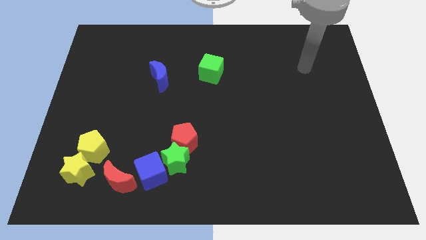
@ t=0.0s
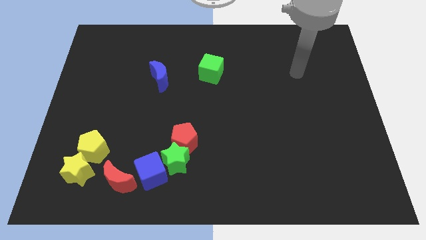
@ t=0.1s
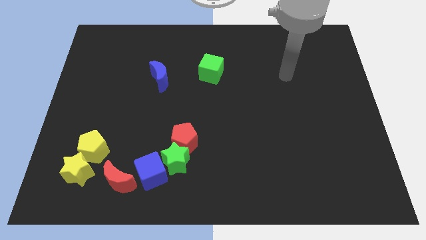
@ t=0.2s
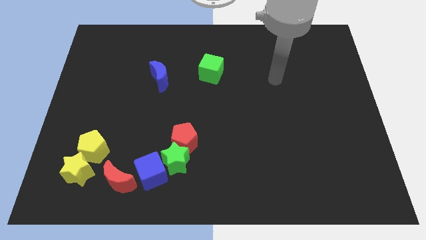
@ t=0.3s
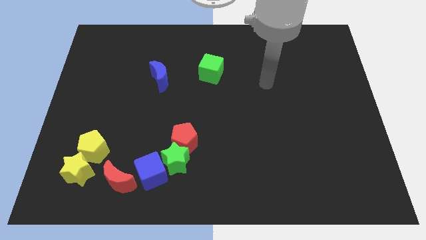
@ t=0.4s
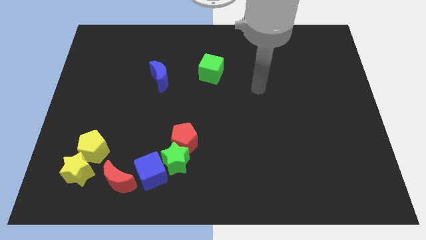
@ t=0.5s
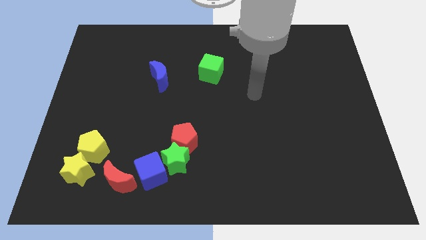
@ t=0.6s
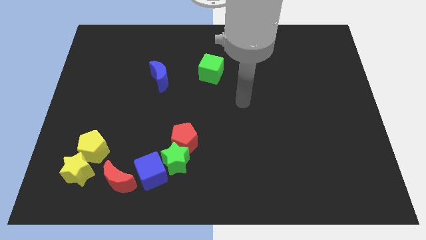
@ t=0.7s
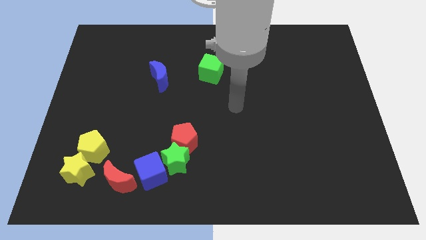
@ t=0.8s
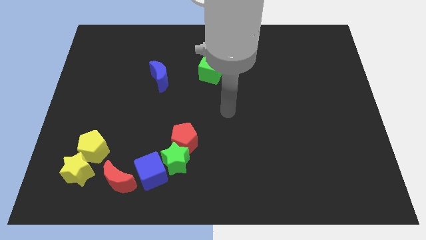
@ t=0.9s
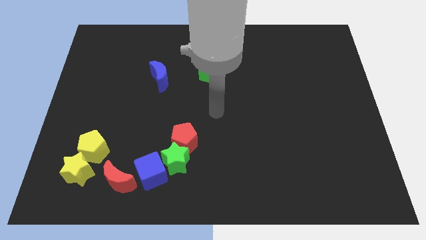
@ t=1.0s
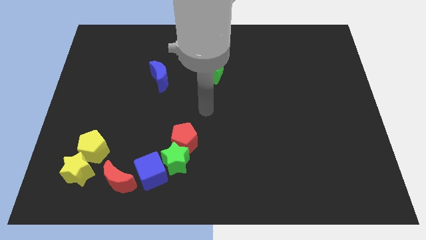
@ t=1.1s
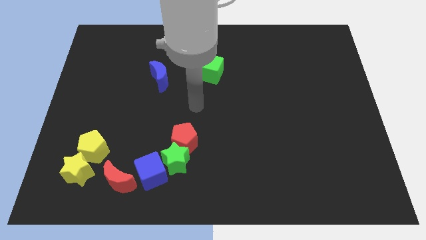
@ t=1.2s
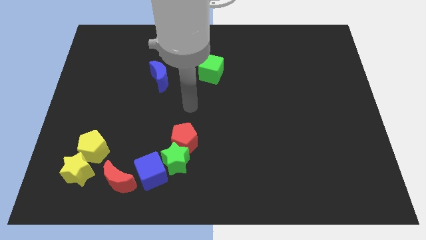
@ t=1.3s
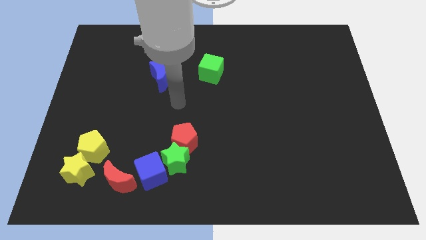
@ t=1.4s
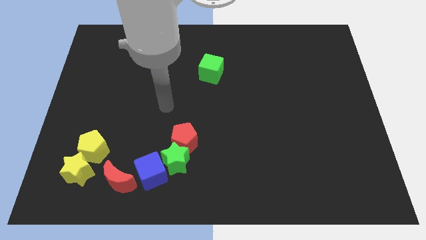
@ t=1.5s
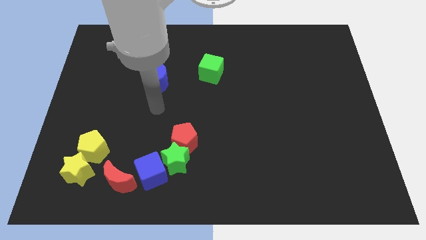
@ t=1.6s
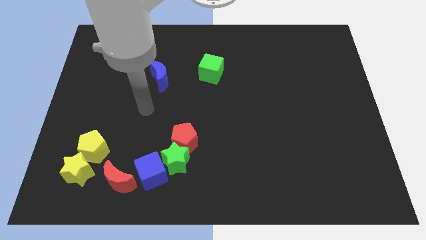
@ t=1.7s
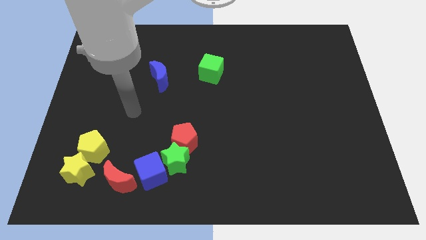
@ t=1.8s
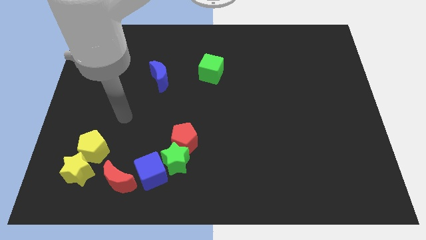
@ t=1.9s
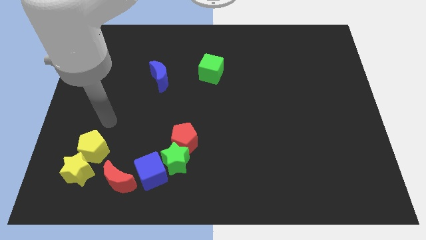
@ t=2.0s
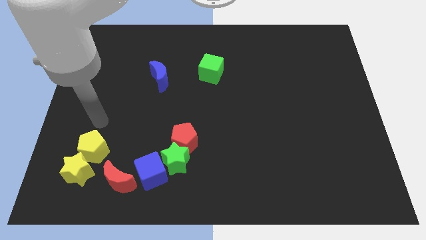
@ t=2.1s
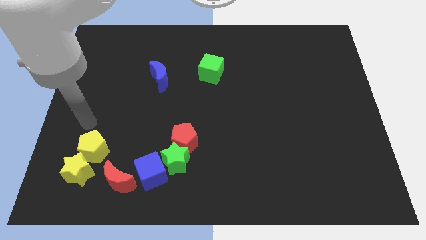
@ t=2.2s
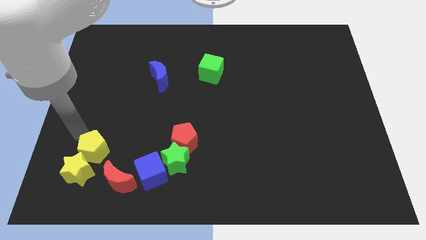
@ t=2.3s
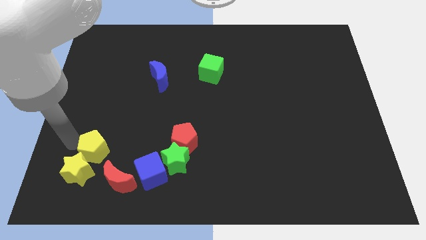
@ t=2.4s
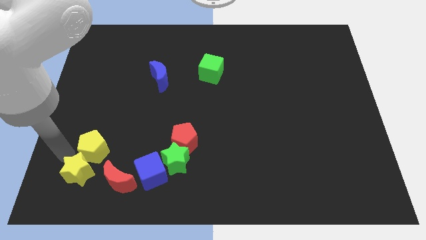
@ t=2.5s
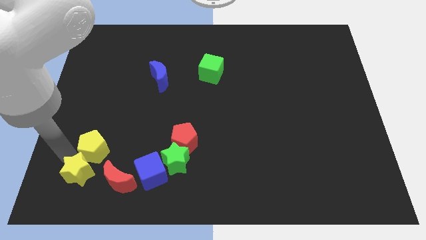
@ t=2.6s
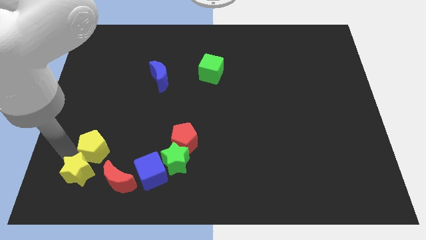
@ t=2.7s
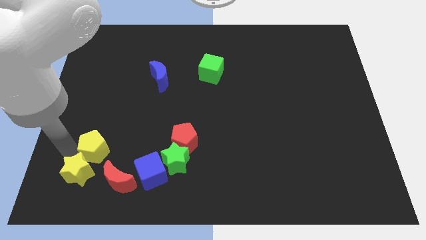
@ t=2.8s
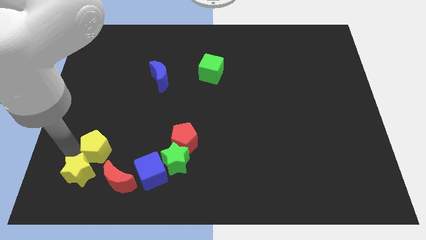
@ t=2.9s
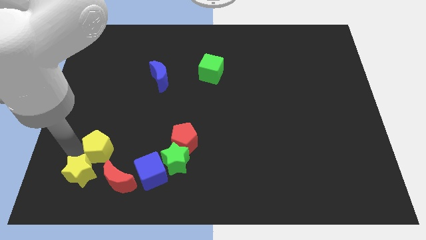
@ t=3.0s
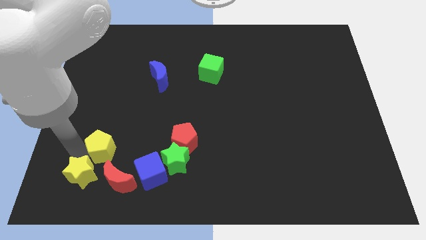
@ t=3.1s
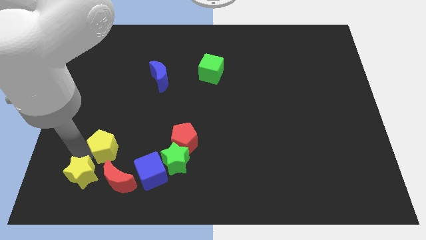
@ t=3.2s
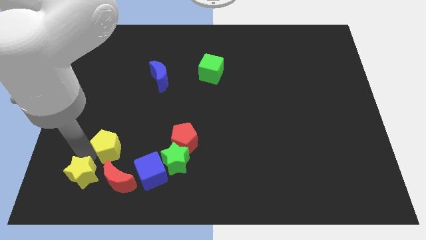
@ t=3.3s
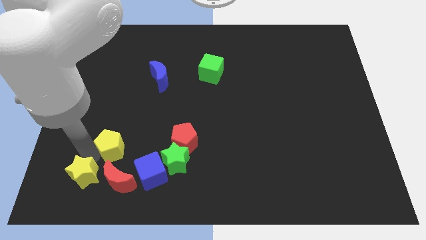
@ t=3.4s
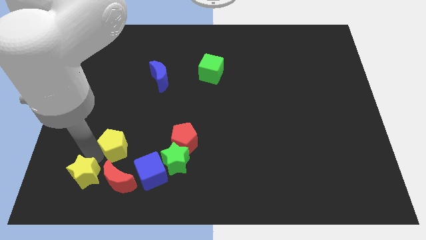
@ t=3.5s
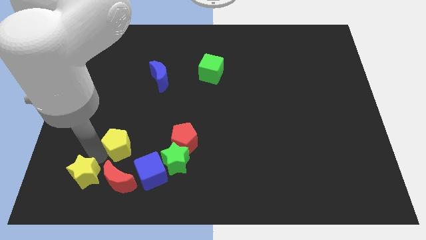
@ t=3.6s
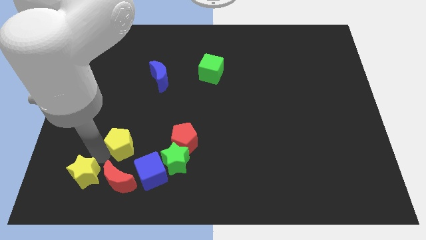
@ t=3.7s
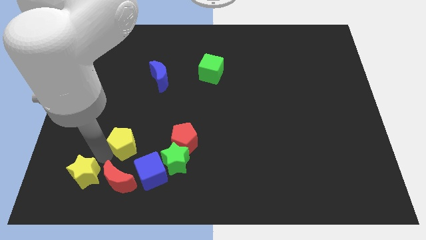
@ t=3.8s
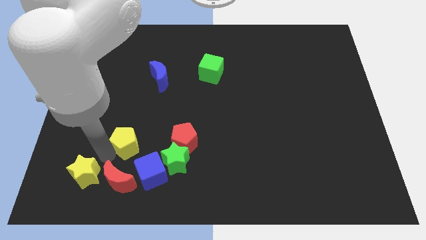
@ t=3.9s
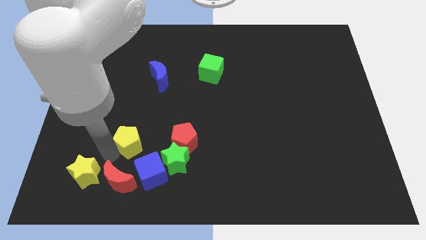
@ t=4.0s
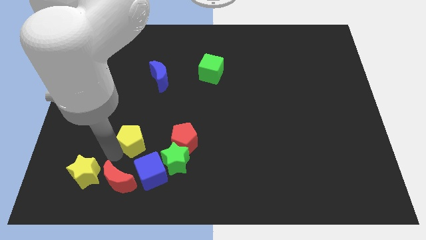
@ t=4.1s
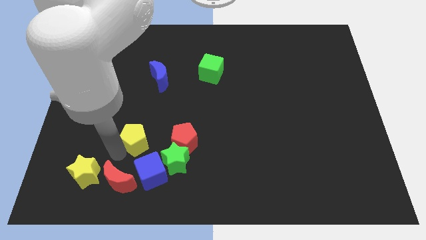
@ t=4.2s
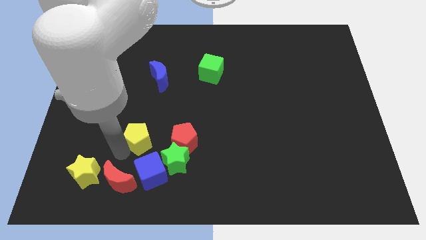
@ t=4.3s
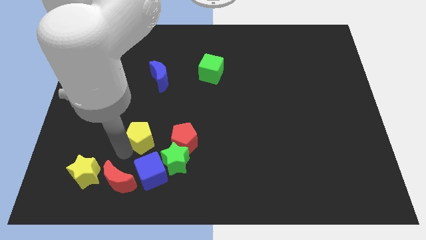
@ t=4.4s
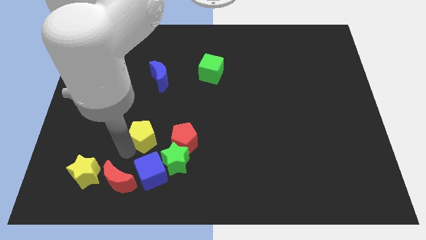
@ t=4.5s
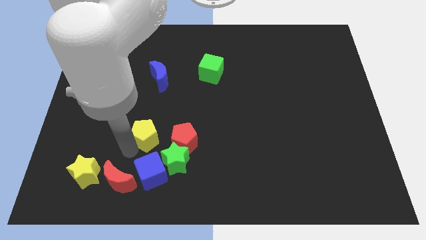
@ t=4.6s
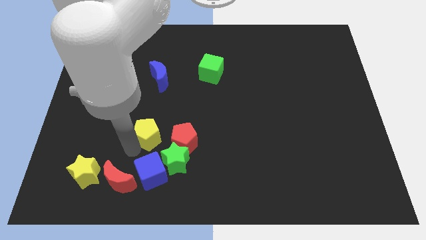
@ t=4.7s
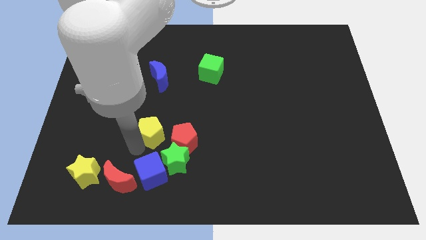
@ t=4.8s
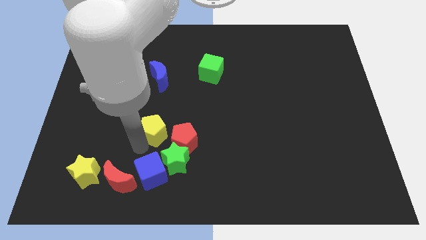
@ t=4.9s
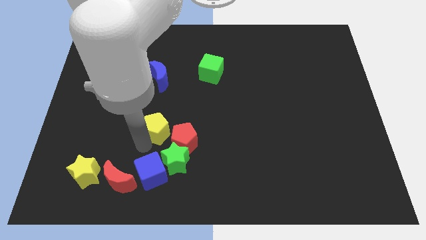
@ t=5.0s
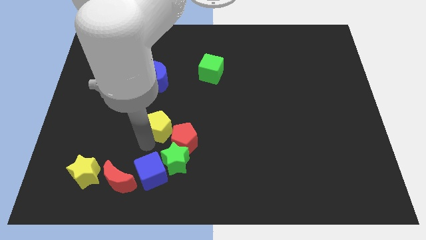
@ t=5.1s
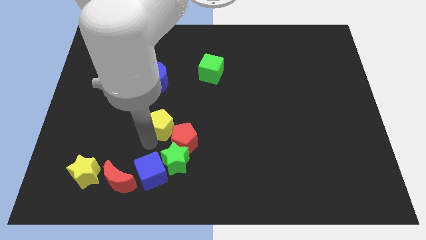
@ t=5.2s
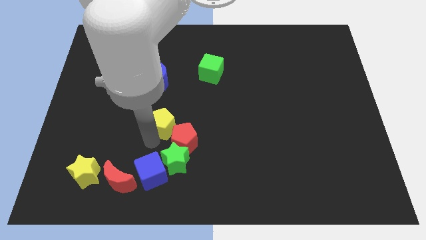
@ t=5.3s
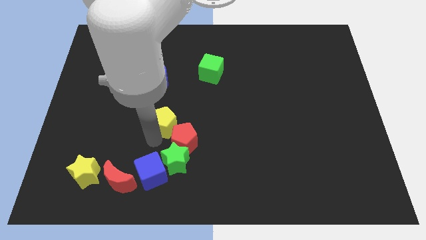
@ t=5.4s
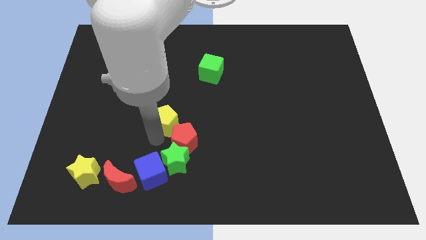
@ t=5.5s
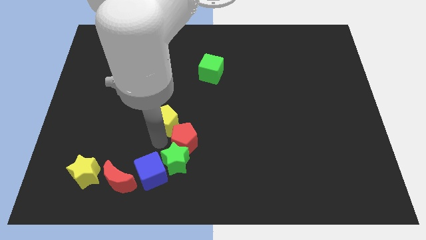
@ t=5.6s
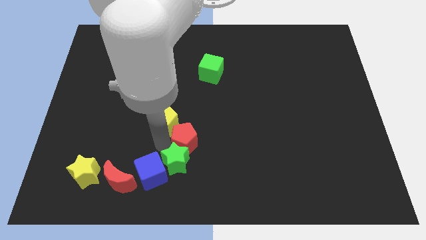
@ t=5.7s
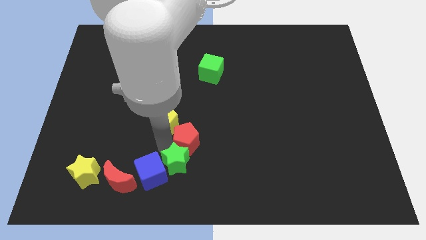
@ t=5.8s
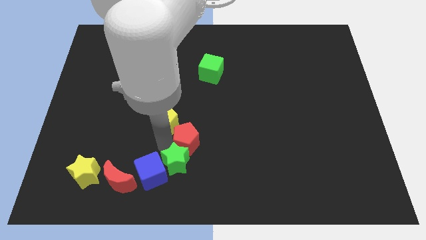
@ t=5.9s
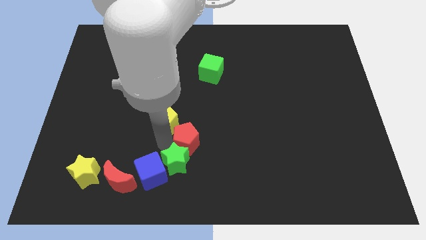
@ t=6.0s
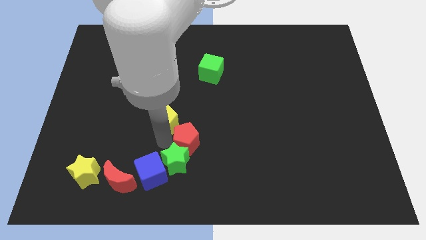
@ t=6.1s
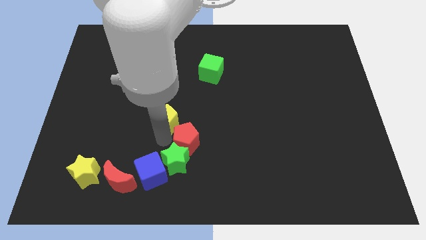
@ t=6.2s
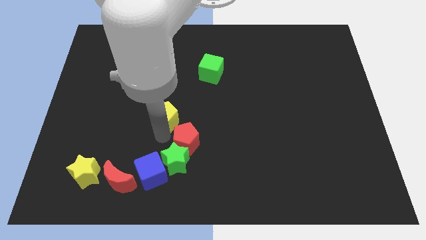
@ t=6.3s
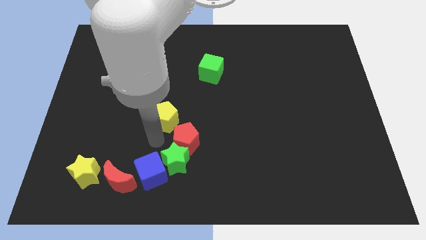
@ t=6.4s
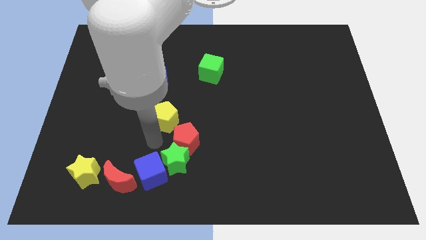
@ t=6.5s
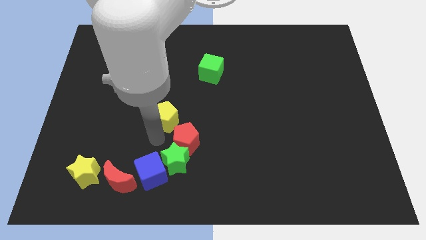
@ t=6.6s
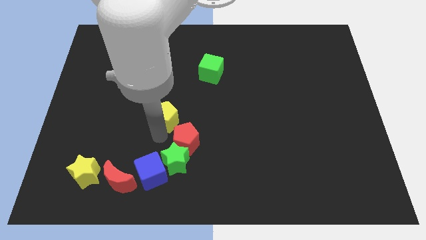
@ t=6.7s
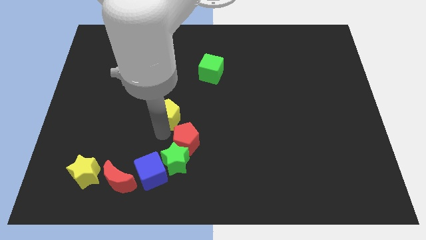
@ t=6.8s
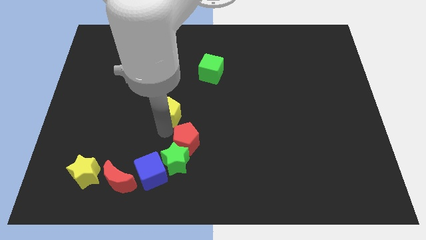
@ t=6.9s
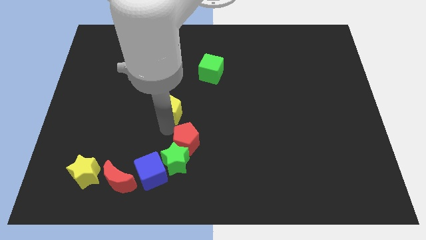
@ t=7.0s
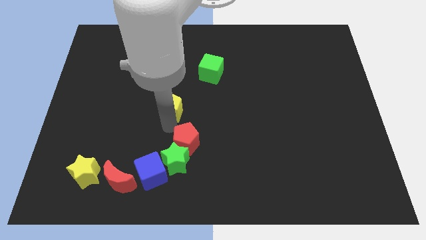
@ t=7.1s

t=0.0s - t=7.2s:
move the yellow pentagon diagonally down and to the right of the blue moon

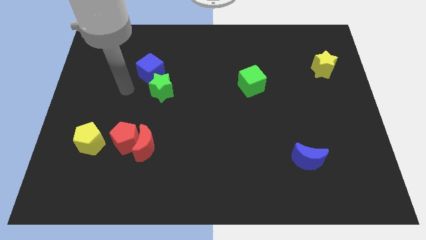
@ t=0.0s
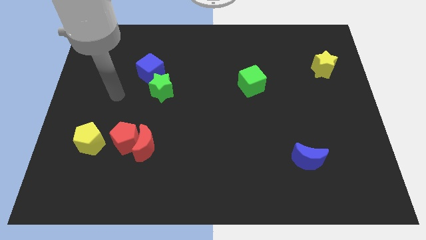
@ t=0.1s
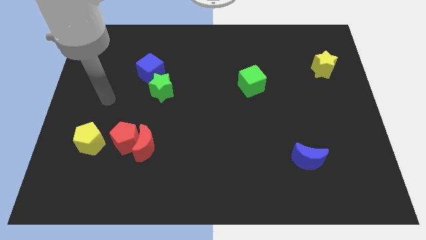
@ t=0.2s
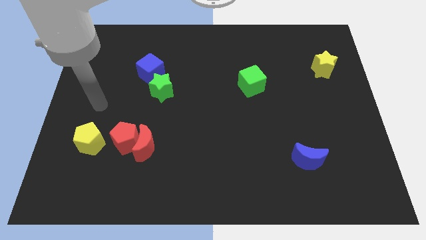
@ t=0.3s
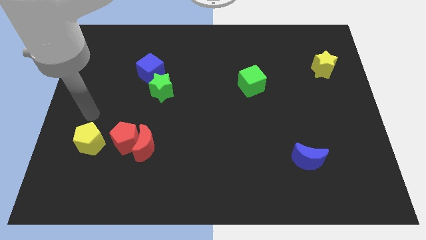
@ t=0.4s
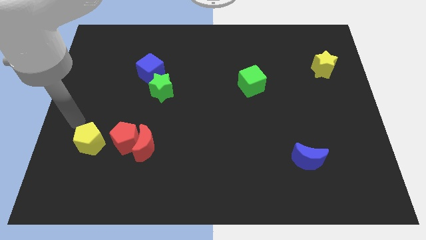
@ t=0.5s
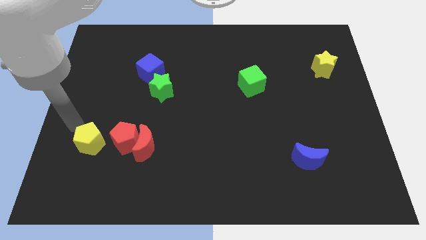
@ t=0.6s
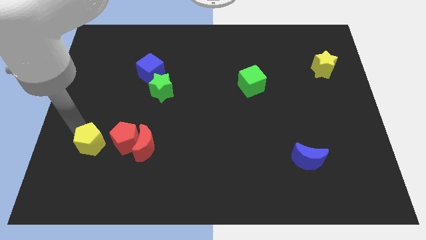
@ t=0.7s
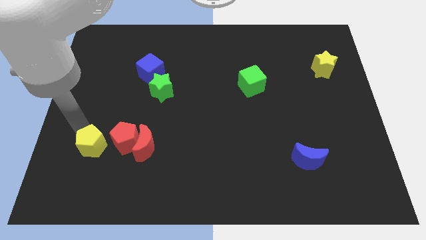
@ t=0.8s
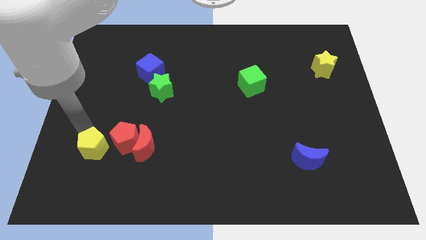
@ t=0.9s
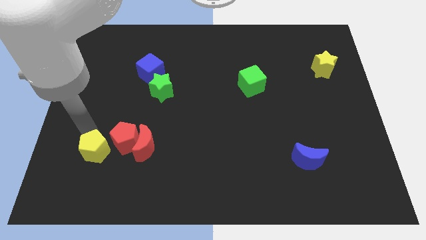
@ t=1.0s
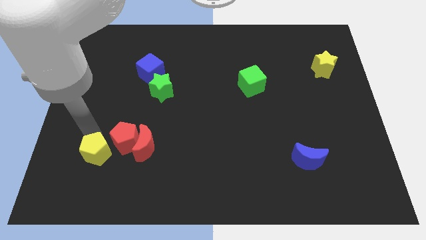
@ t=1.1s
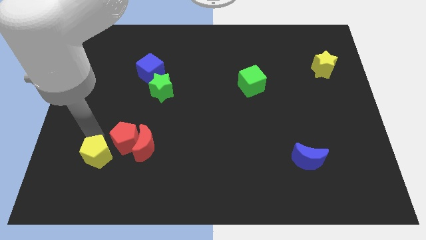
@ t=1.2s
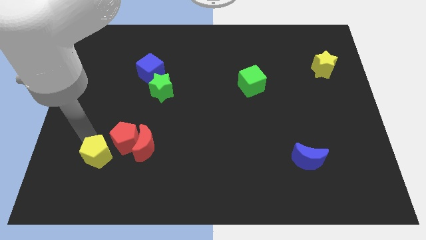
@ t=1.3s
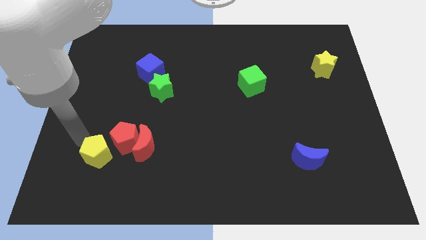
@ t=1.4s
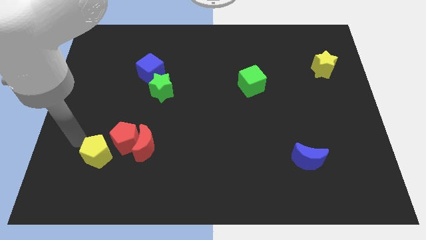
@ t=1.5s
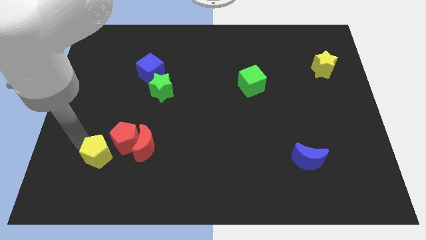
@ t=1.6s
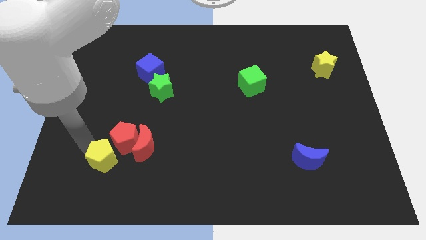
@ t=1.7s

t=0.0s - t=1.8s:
move the yellow pentagon to the bottom left of the red moon
